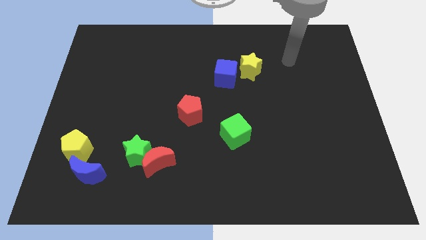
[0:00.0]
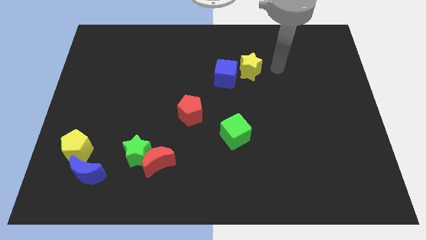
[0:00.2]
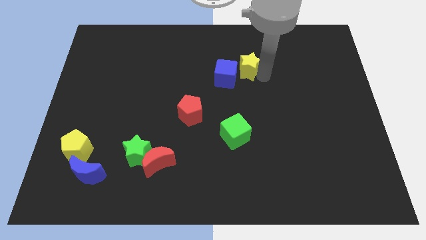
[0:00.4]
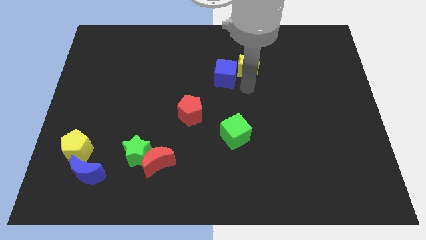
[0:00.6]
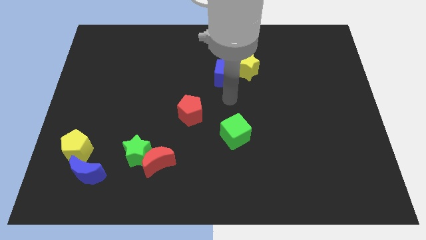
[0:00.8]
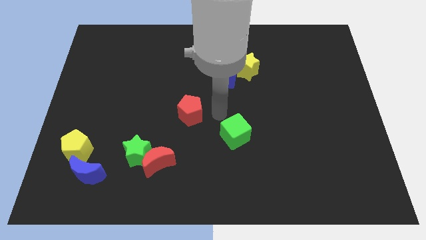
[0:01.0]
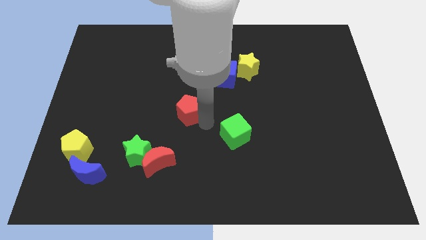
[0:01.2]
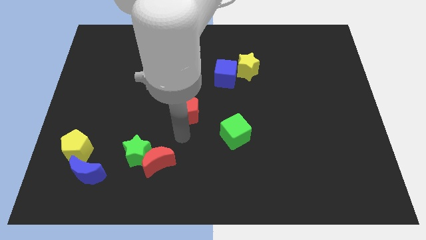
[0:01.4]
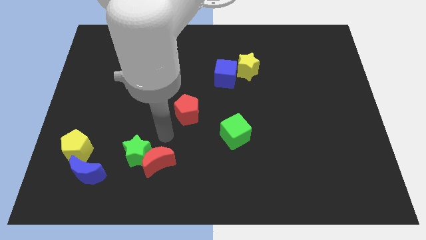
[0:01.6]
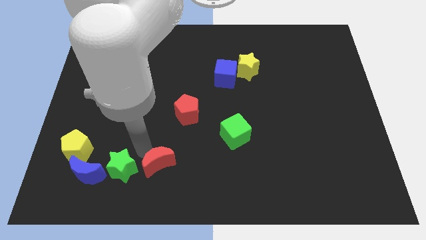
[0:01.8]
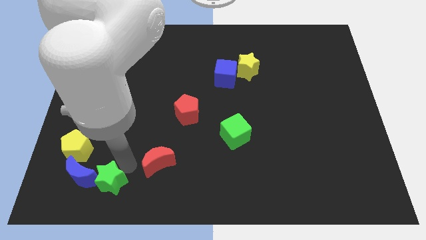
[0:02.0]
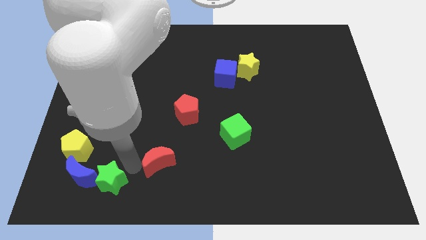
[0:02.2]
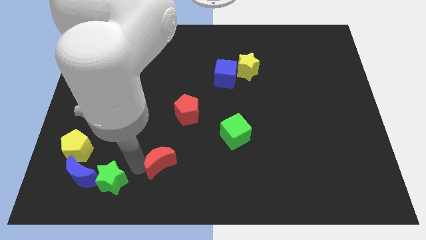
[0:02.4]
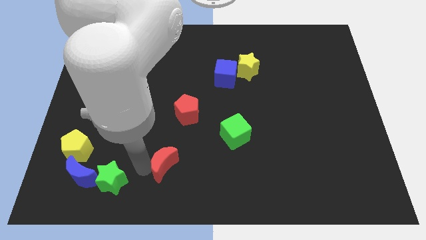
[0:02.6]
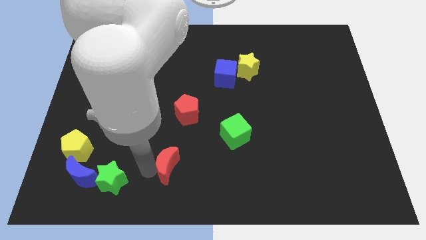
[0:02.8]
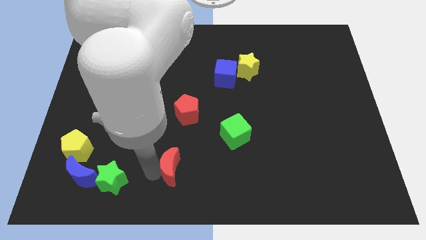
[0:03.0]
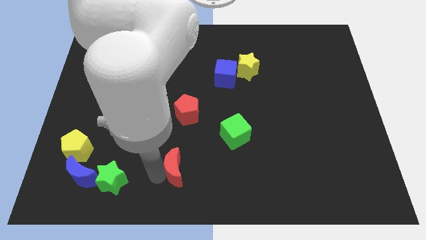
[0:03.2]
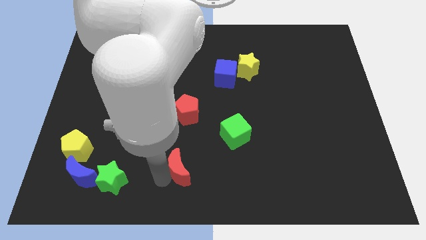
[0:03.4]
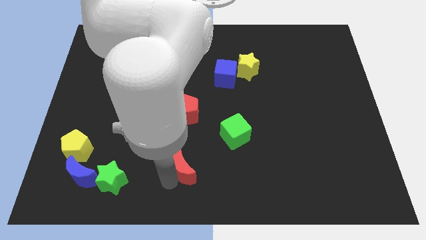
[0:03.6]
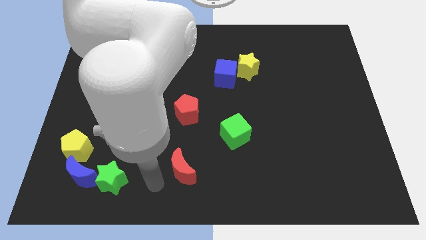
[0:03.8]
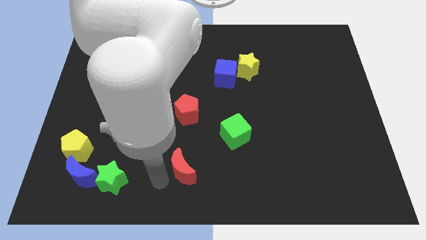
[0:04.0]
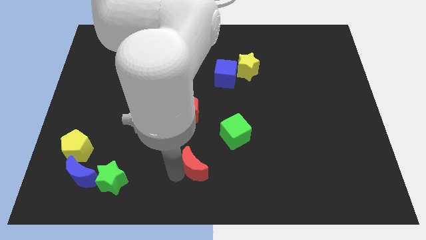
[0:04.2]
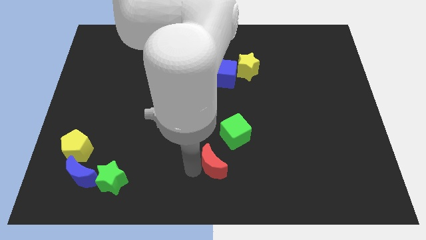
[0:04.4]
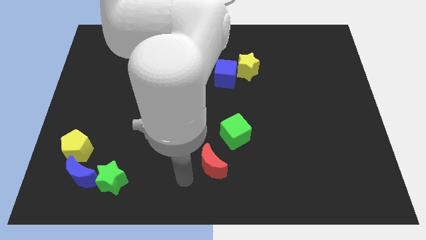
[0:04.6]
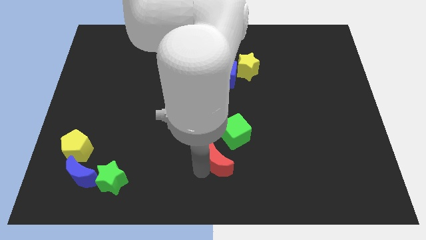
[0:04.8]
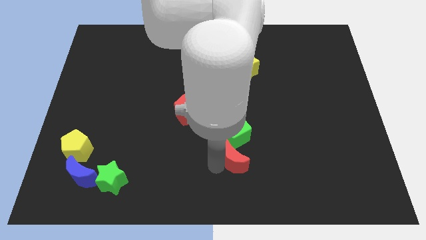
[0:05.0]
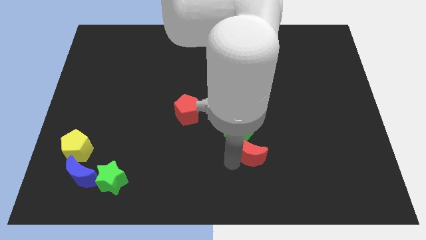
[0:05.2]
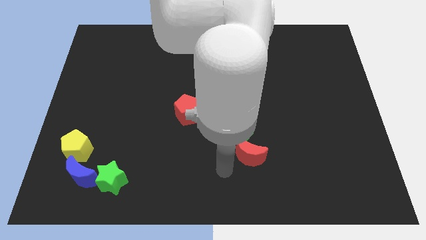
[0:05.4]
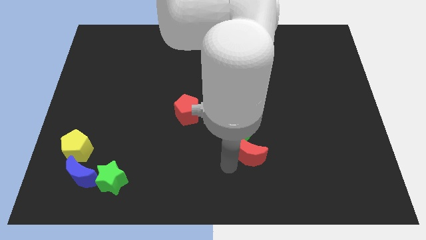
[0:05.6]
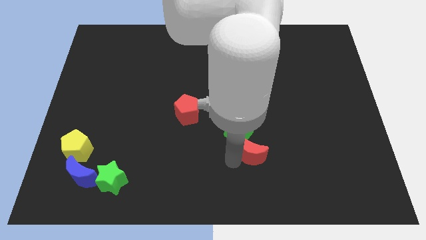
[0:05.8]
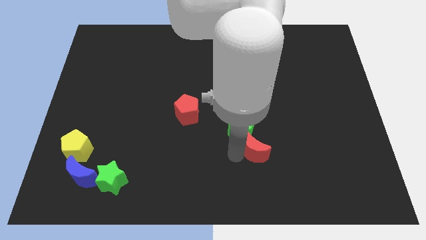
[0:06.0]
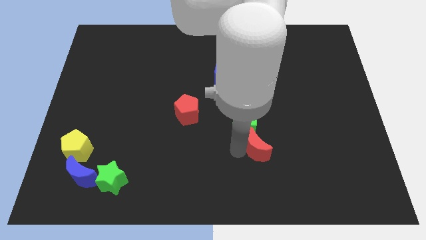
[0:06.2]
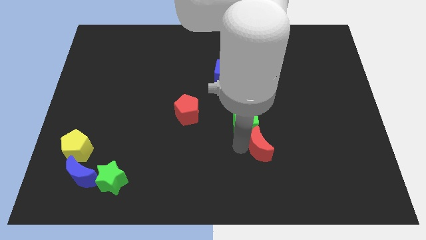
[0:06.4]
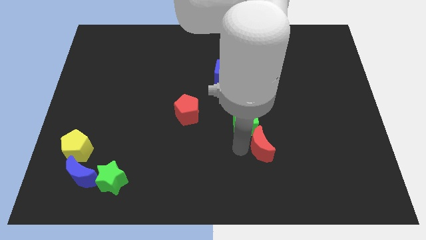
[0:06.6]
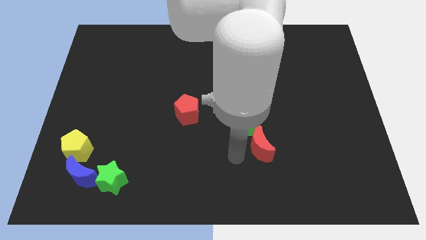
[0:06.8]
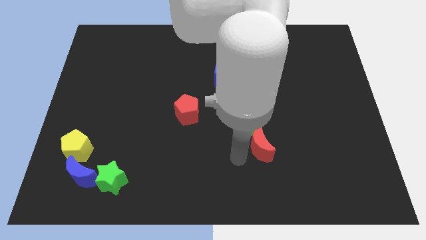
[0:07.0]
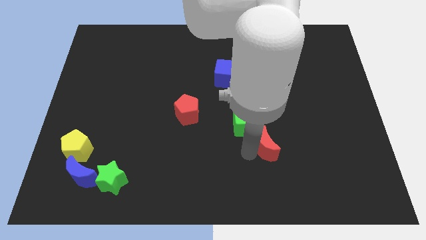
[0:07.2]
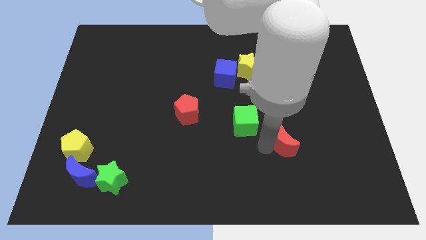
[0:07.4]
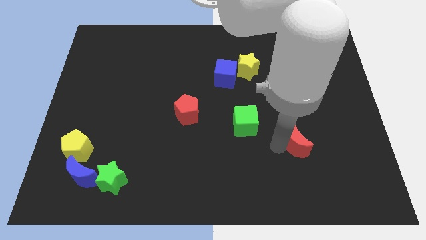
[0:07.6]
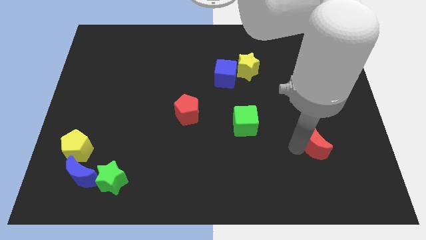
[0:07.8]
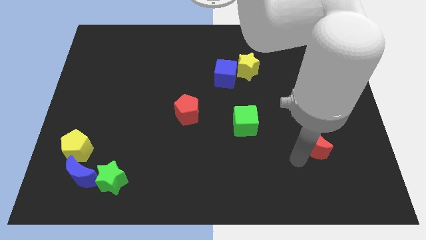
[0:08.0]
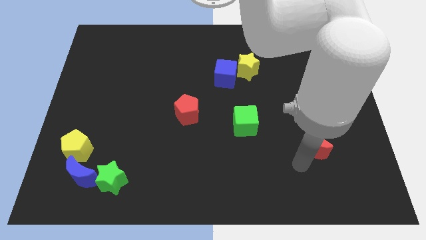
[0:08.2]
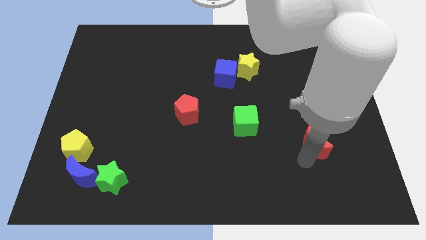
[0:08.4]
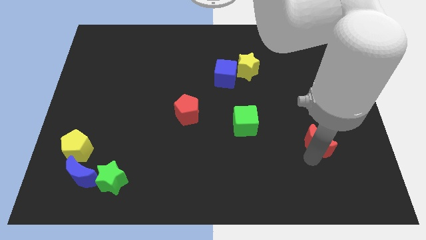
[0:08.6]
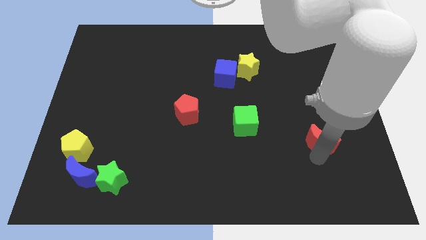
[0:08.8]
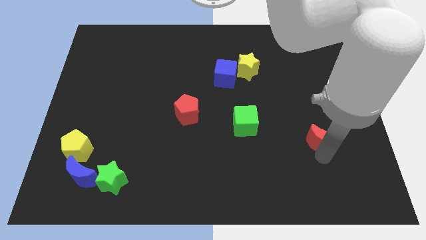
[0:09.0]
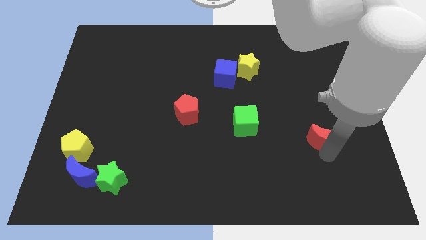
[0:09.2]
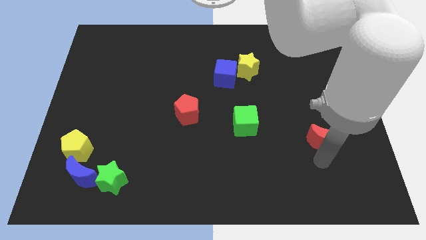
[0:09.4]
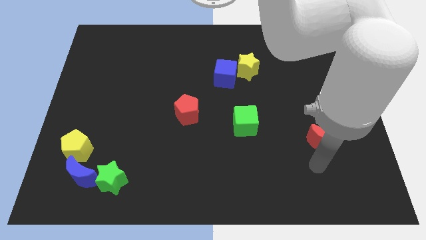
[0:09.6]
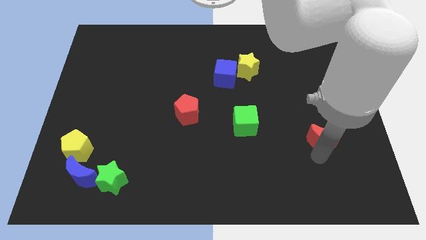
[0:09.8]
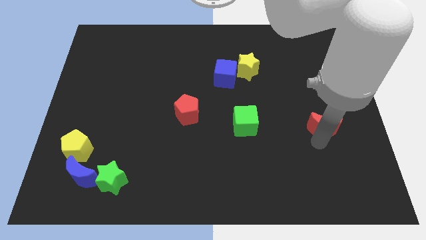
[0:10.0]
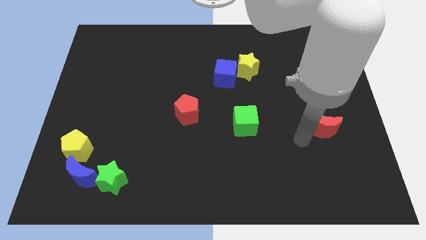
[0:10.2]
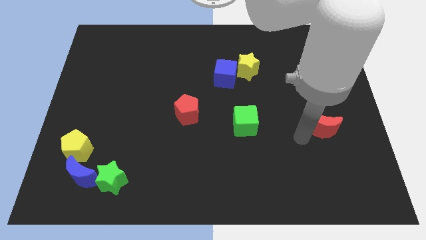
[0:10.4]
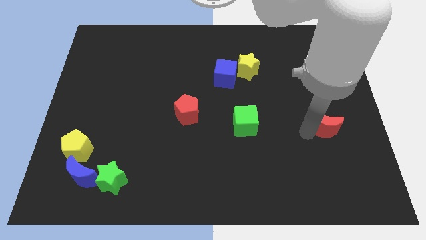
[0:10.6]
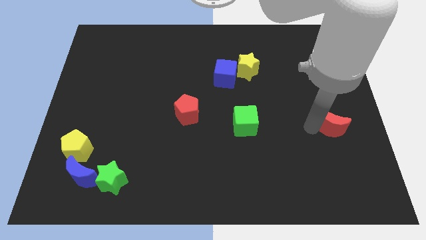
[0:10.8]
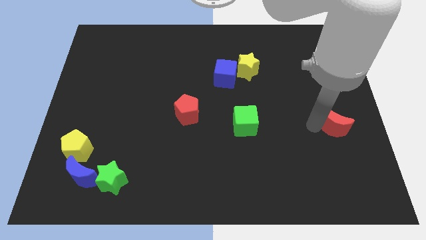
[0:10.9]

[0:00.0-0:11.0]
slide the red moon to the center right
